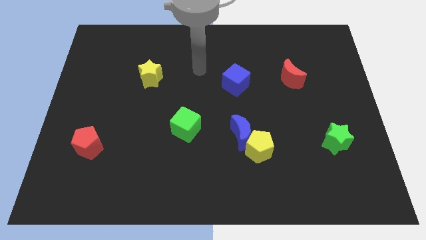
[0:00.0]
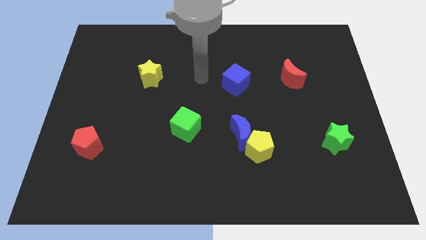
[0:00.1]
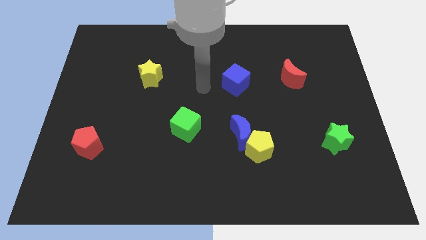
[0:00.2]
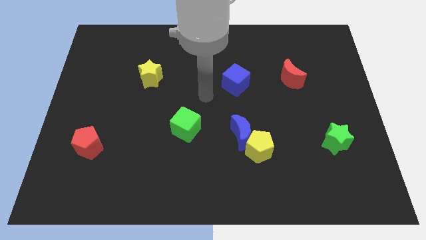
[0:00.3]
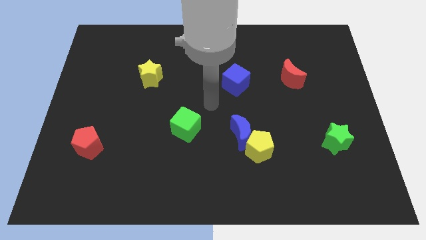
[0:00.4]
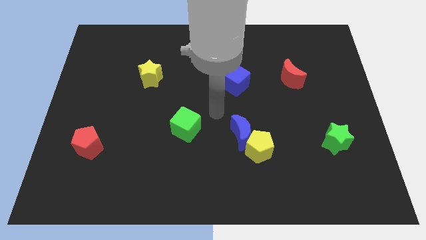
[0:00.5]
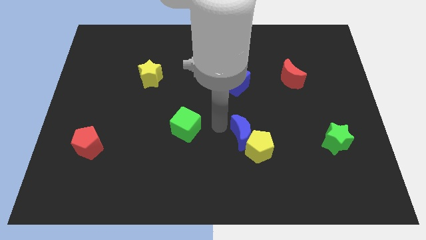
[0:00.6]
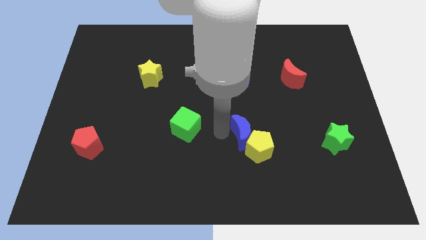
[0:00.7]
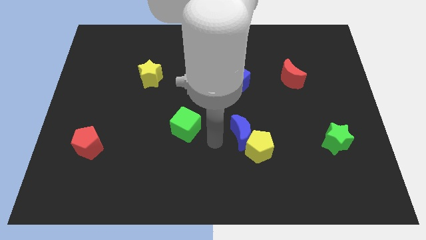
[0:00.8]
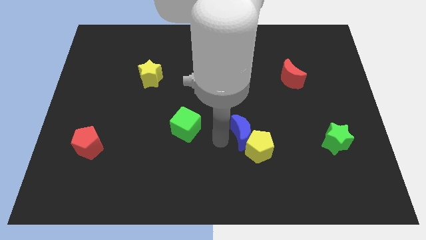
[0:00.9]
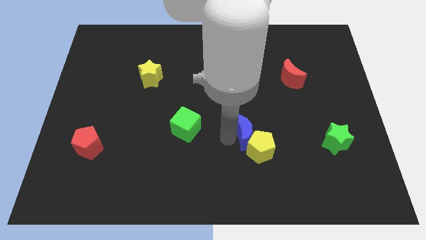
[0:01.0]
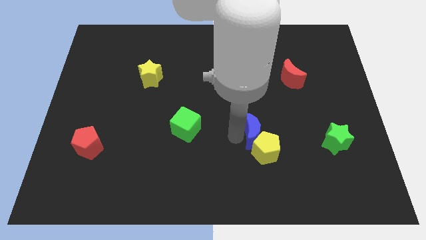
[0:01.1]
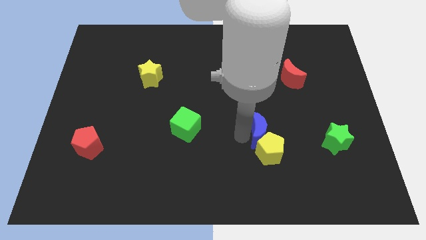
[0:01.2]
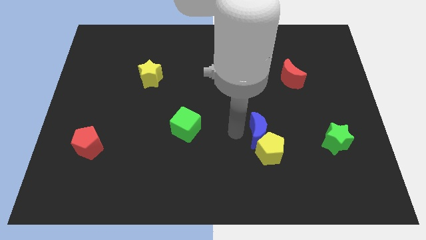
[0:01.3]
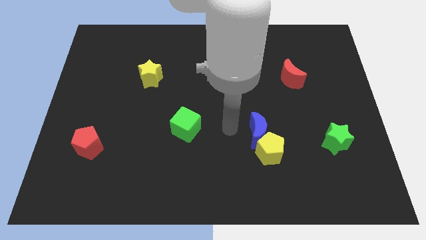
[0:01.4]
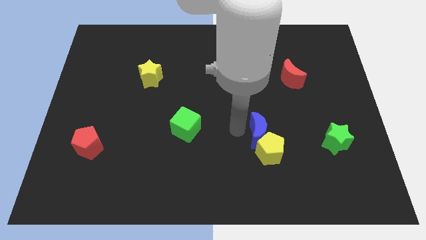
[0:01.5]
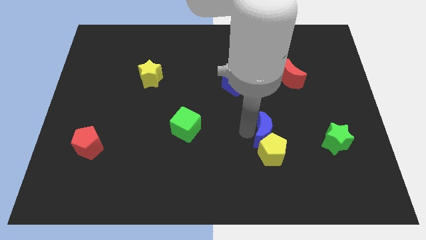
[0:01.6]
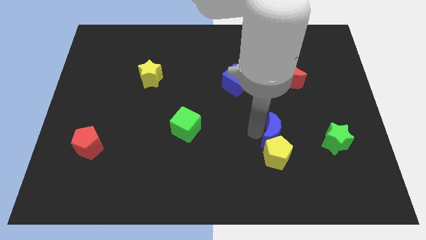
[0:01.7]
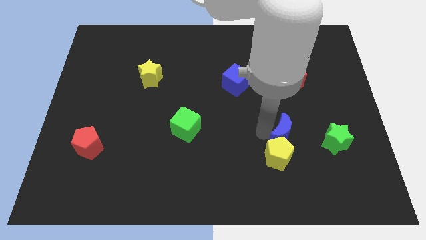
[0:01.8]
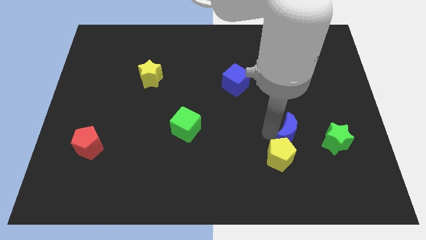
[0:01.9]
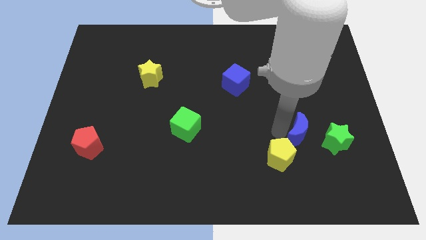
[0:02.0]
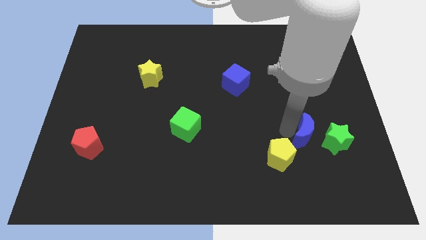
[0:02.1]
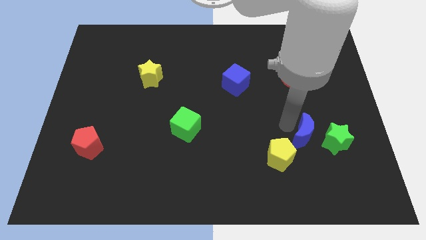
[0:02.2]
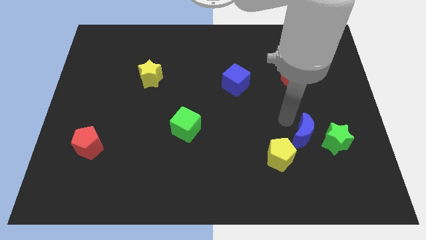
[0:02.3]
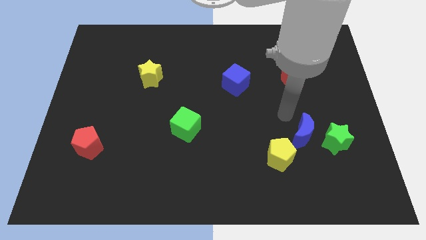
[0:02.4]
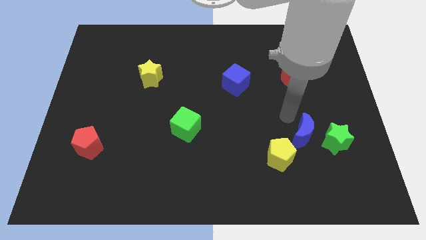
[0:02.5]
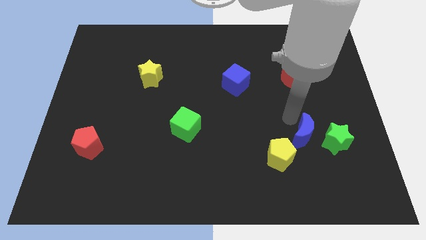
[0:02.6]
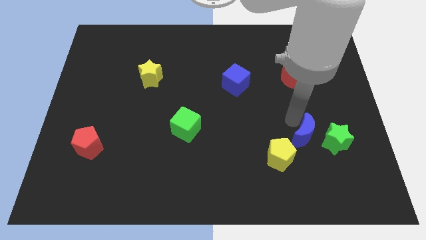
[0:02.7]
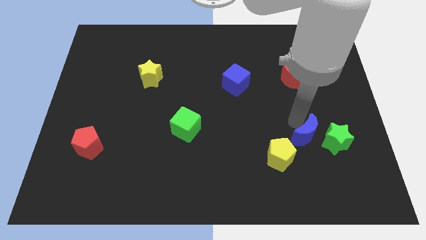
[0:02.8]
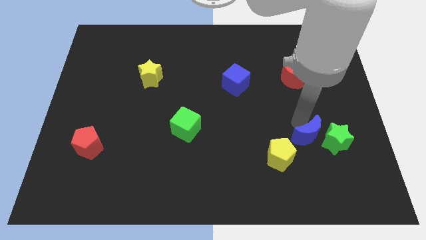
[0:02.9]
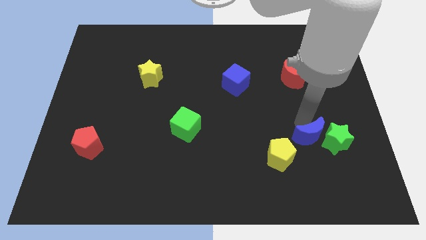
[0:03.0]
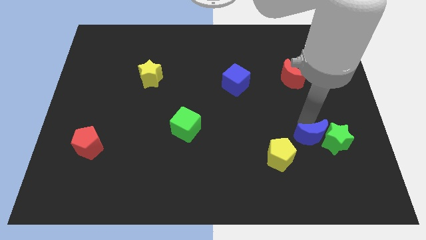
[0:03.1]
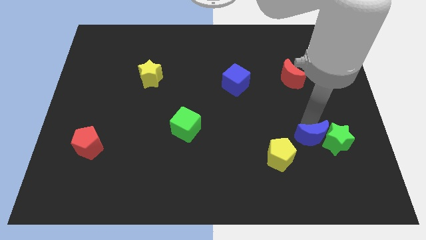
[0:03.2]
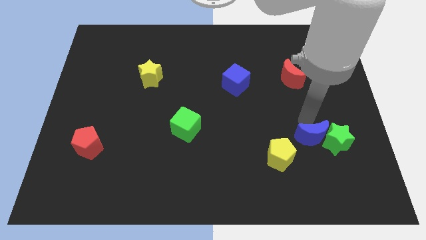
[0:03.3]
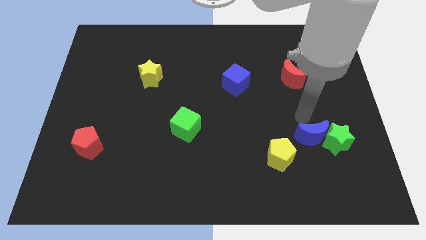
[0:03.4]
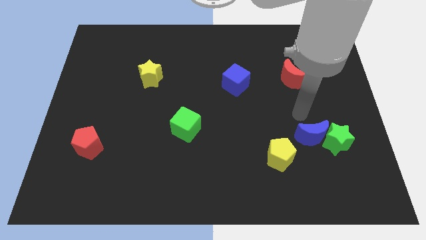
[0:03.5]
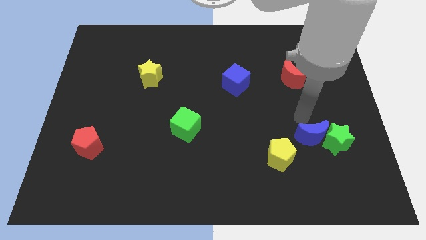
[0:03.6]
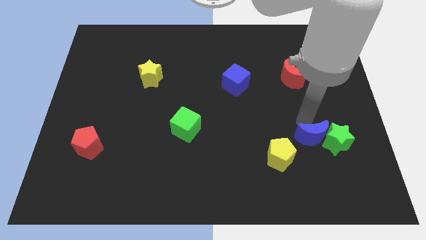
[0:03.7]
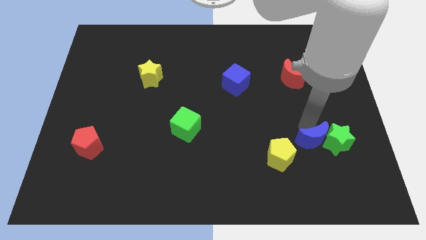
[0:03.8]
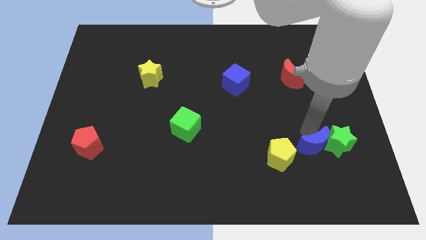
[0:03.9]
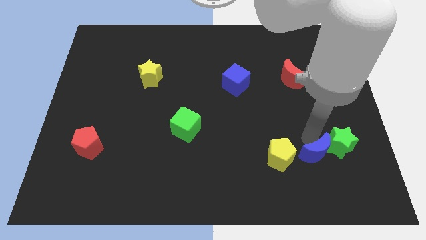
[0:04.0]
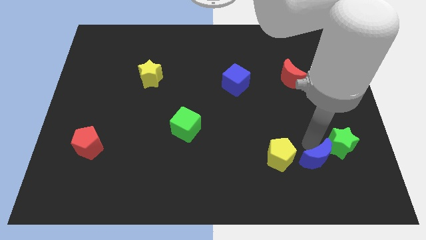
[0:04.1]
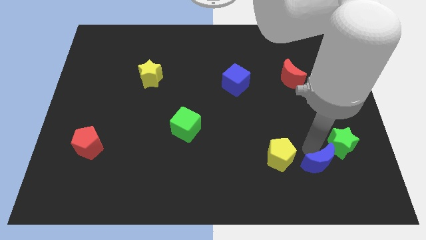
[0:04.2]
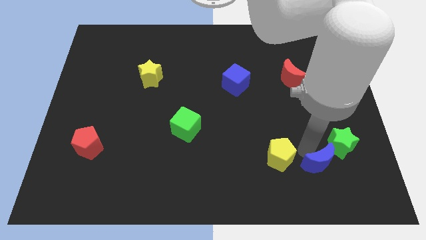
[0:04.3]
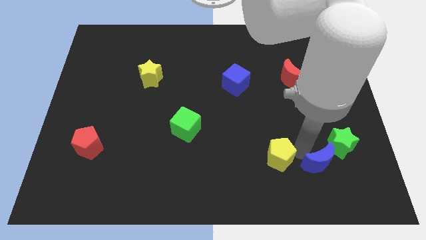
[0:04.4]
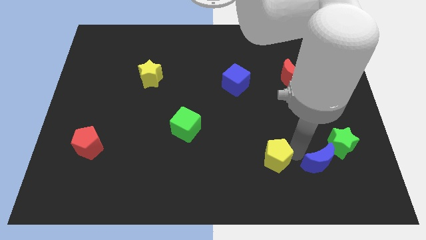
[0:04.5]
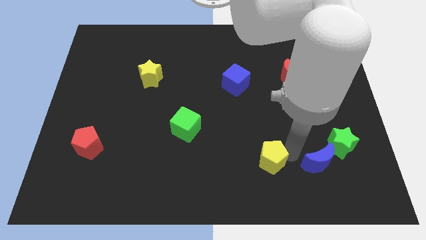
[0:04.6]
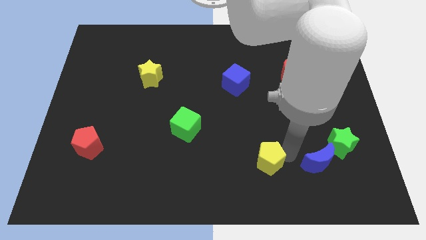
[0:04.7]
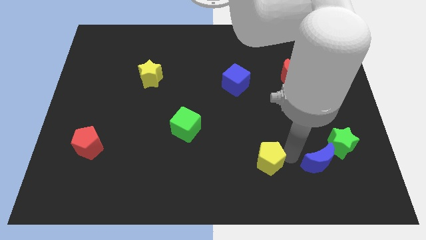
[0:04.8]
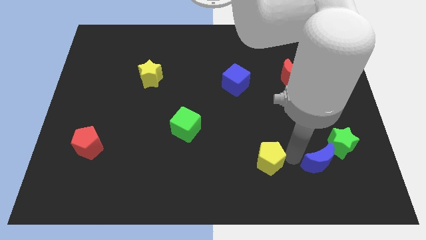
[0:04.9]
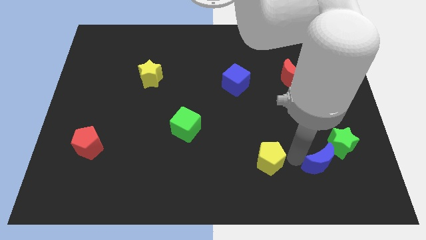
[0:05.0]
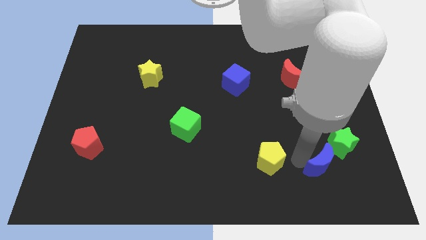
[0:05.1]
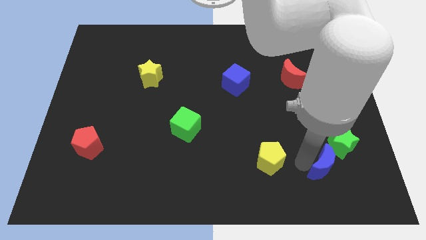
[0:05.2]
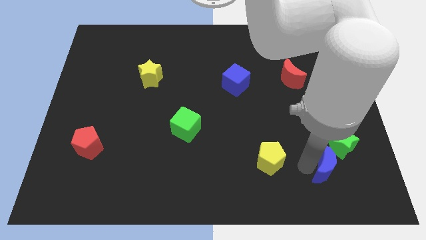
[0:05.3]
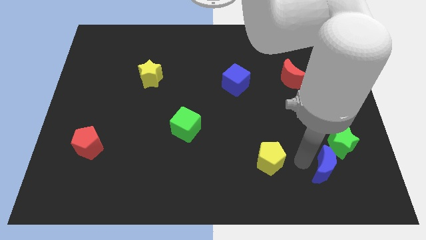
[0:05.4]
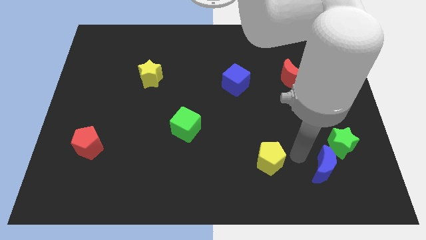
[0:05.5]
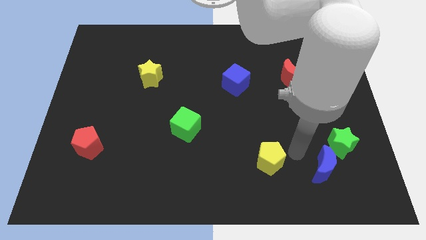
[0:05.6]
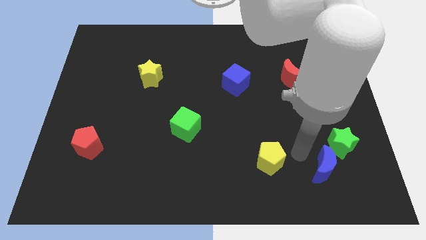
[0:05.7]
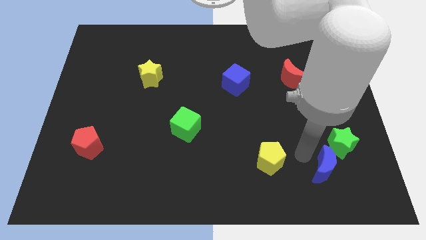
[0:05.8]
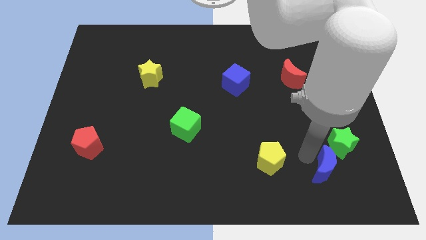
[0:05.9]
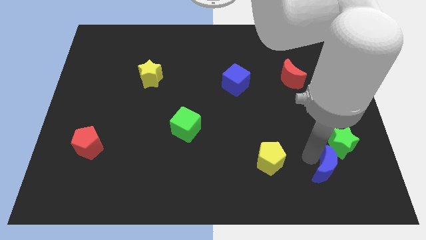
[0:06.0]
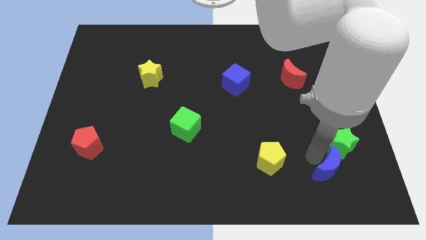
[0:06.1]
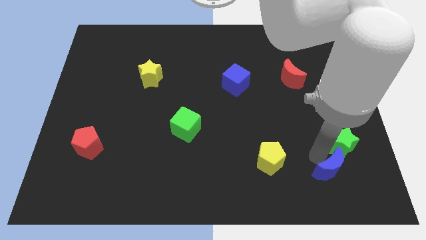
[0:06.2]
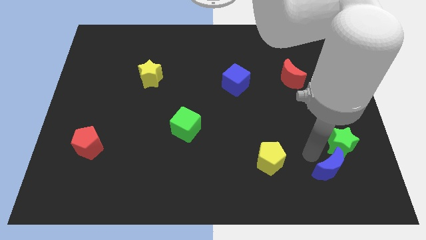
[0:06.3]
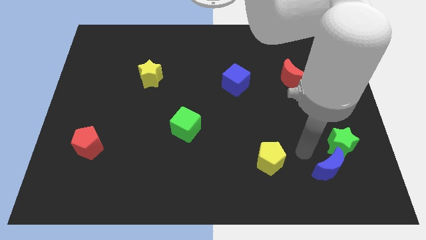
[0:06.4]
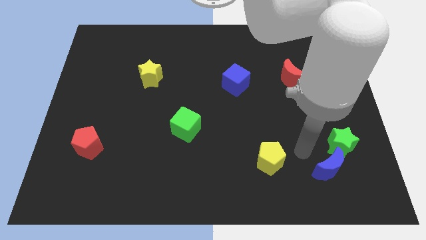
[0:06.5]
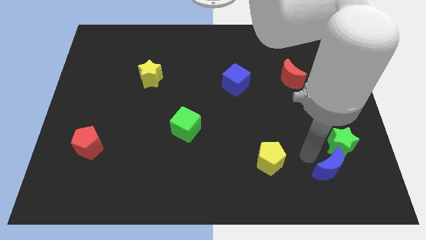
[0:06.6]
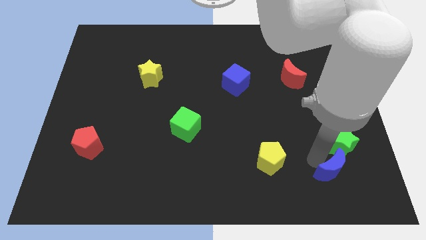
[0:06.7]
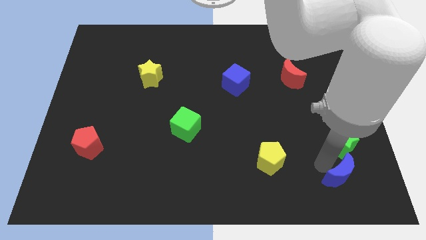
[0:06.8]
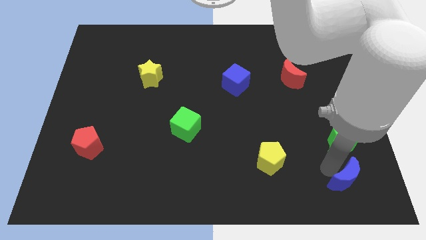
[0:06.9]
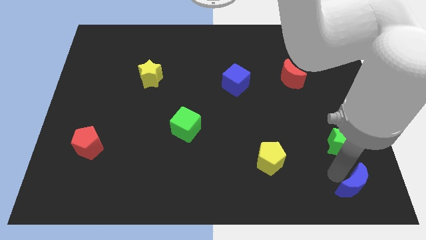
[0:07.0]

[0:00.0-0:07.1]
push the blue moon to the bottom right
